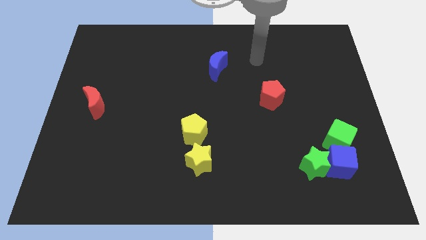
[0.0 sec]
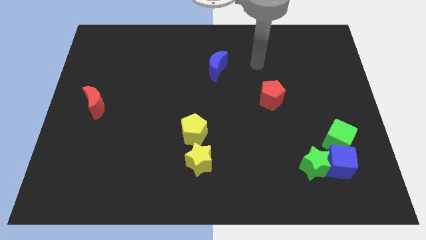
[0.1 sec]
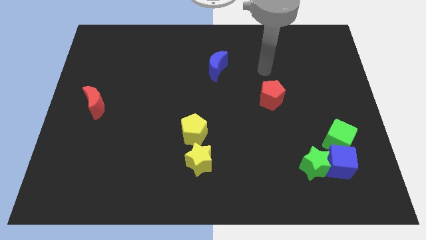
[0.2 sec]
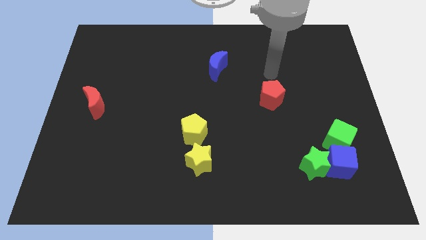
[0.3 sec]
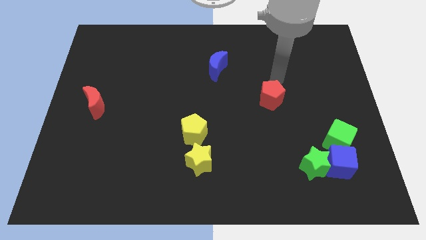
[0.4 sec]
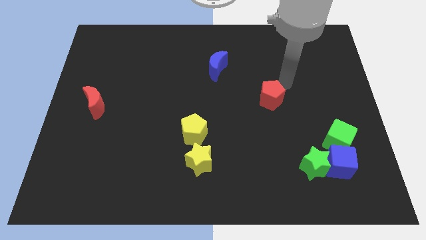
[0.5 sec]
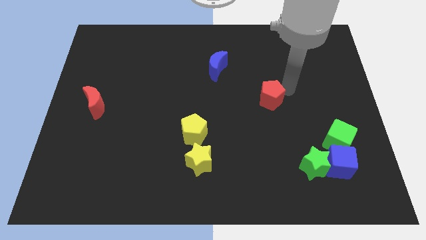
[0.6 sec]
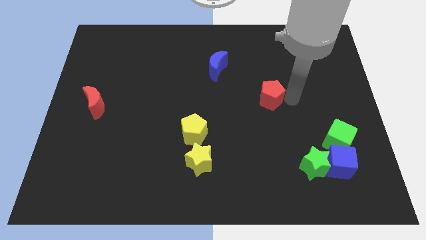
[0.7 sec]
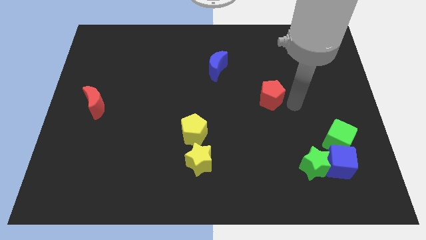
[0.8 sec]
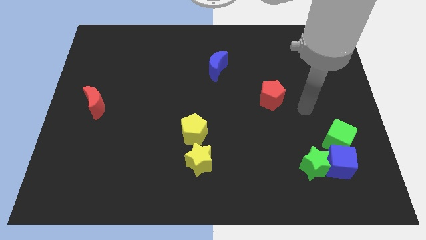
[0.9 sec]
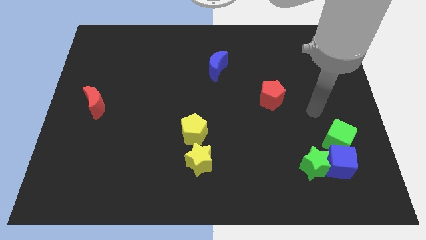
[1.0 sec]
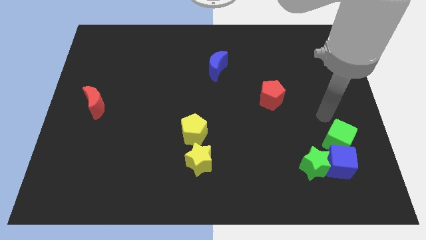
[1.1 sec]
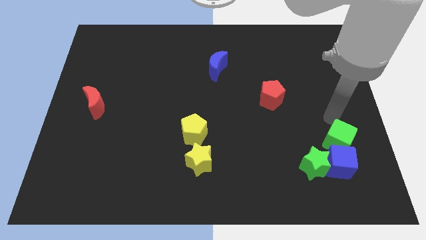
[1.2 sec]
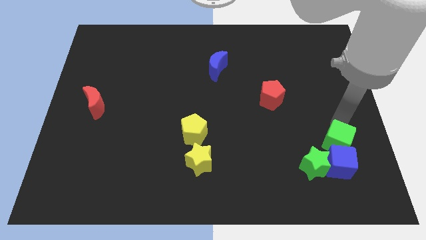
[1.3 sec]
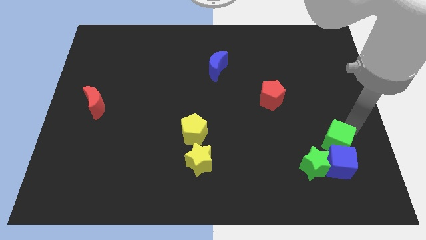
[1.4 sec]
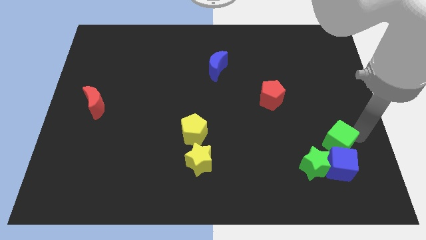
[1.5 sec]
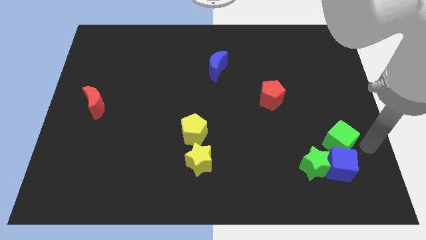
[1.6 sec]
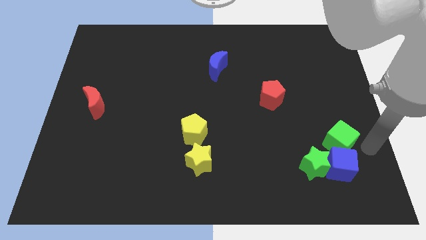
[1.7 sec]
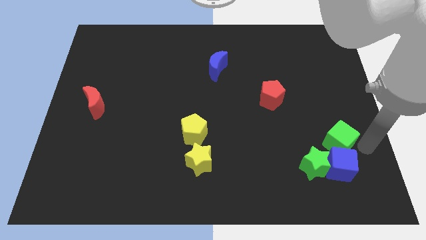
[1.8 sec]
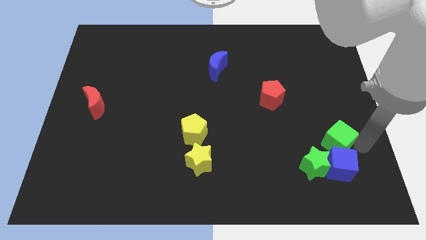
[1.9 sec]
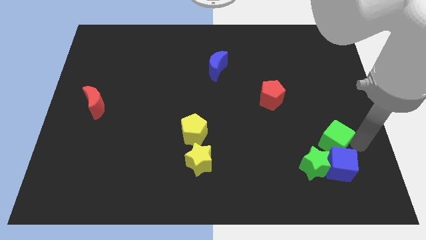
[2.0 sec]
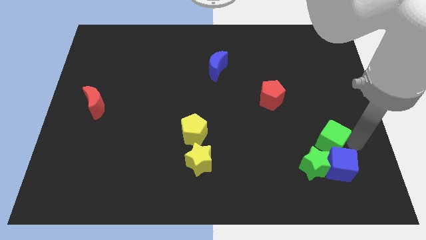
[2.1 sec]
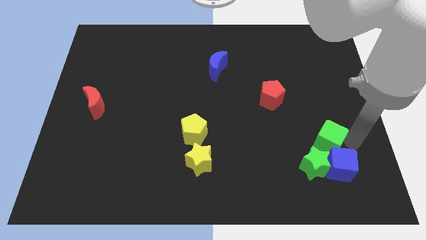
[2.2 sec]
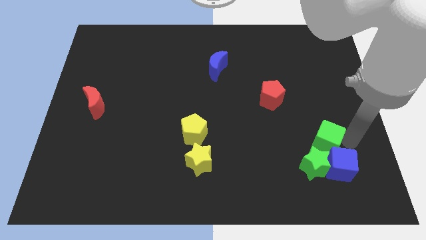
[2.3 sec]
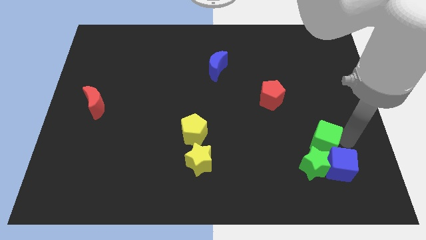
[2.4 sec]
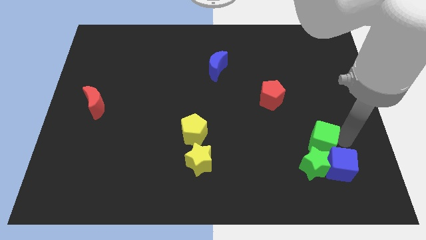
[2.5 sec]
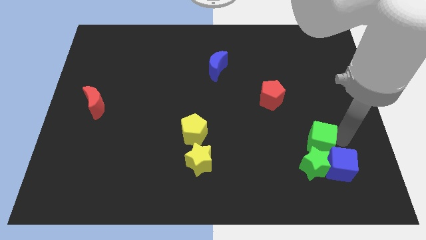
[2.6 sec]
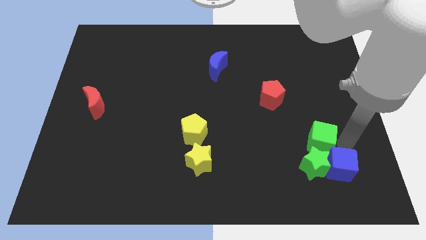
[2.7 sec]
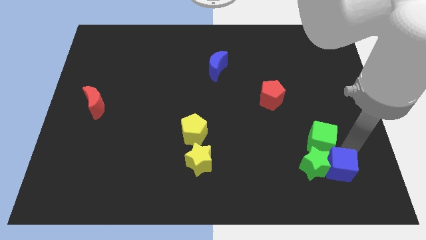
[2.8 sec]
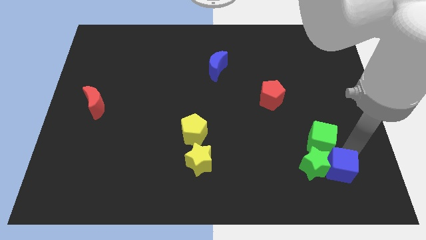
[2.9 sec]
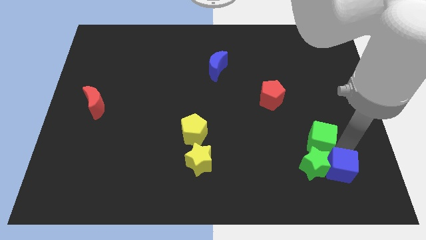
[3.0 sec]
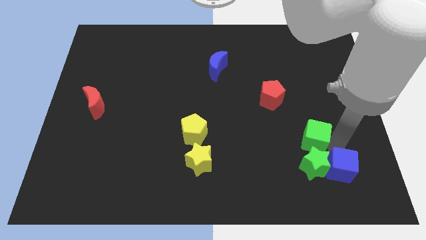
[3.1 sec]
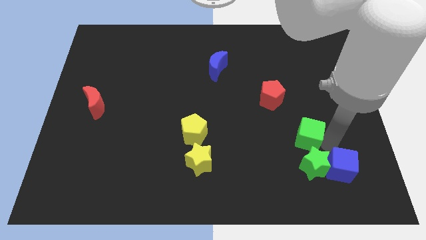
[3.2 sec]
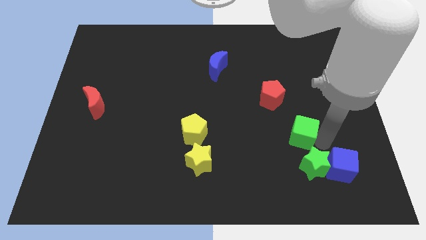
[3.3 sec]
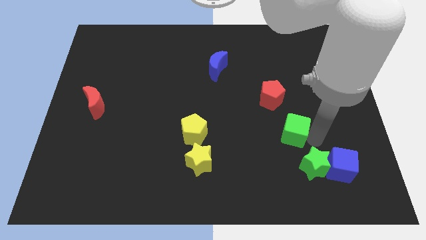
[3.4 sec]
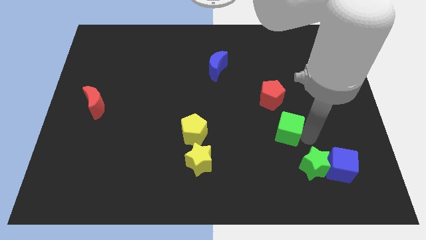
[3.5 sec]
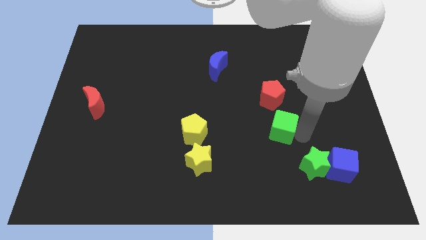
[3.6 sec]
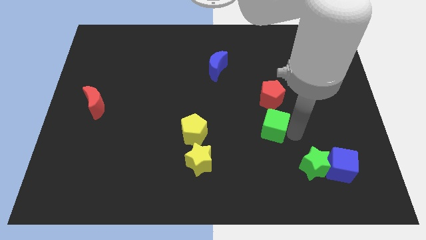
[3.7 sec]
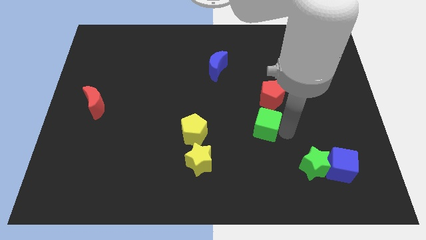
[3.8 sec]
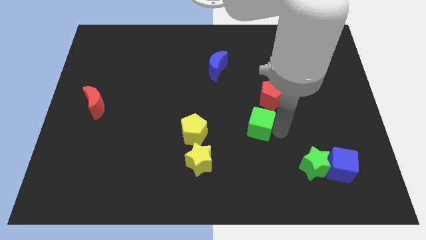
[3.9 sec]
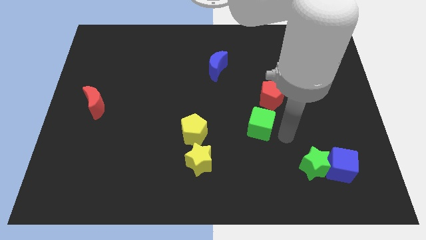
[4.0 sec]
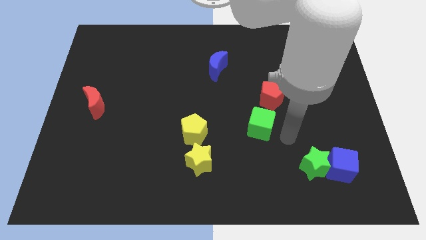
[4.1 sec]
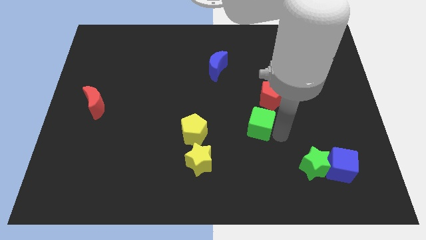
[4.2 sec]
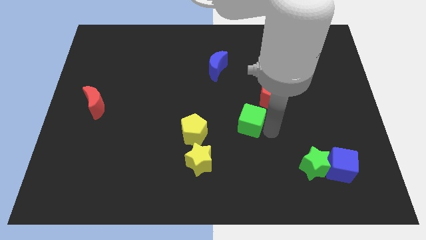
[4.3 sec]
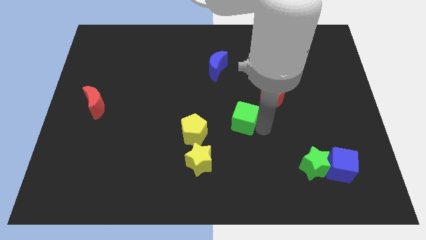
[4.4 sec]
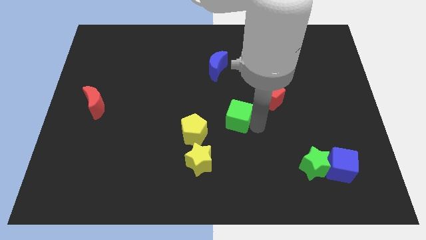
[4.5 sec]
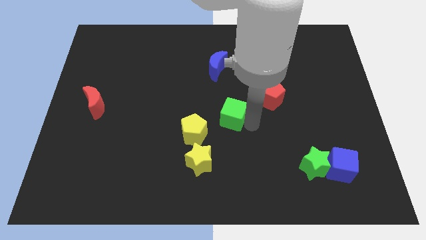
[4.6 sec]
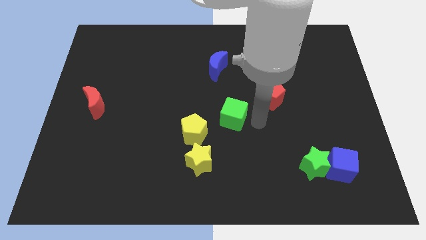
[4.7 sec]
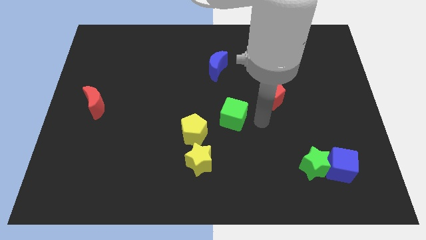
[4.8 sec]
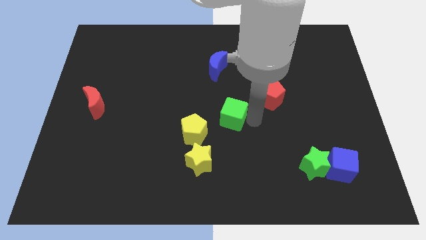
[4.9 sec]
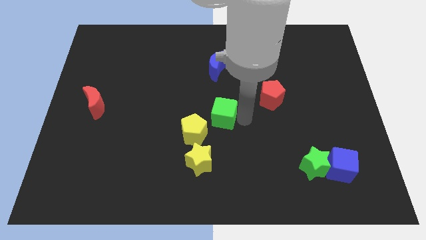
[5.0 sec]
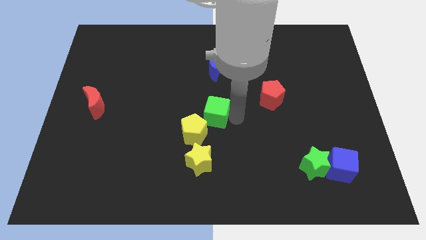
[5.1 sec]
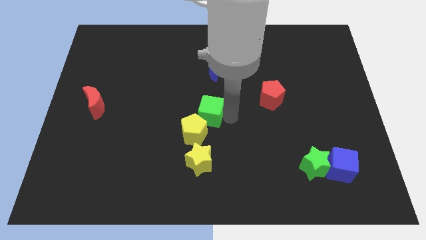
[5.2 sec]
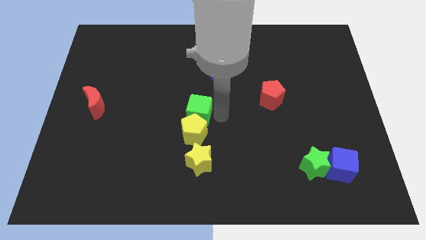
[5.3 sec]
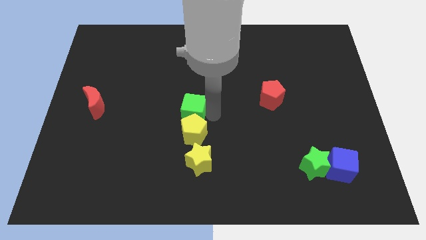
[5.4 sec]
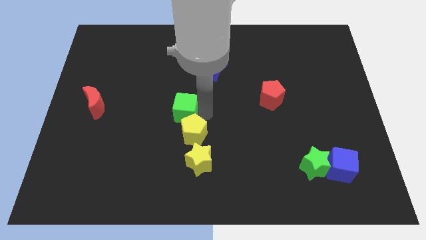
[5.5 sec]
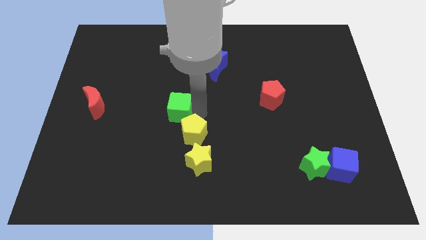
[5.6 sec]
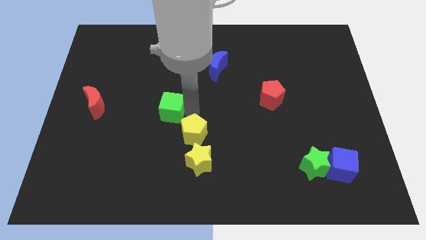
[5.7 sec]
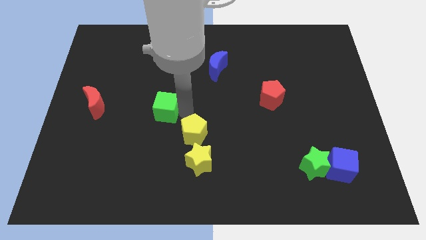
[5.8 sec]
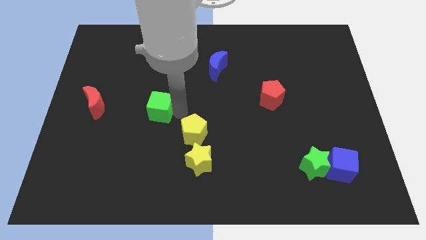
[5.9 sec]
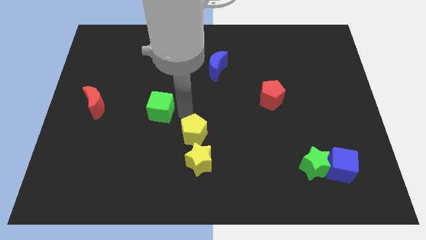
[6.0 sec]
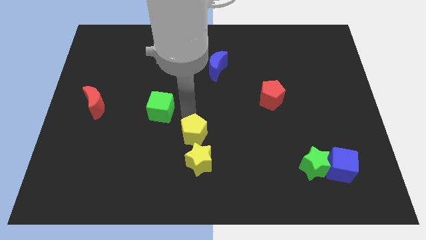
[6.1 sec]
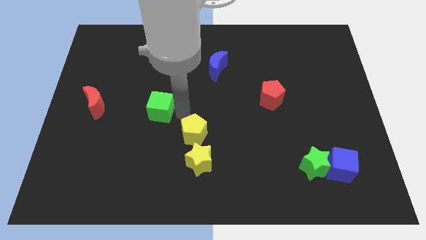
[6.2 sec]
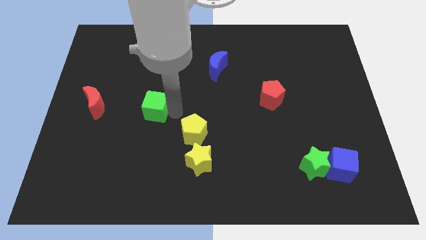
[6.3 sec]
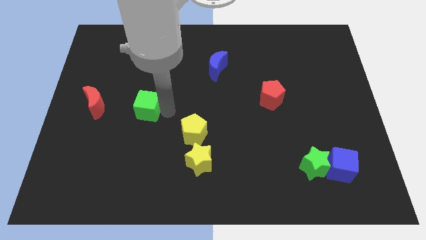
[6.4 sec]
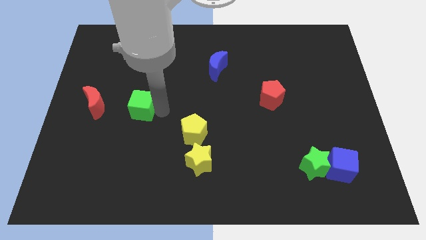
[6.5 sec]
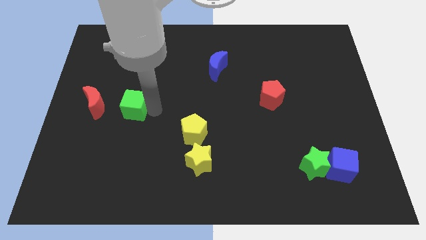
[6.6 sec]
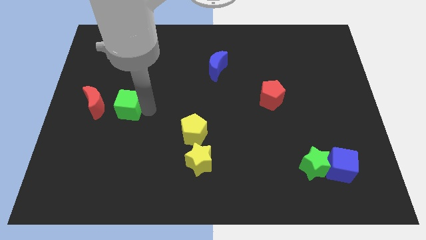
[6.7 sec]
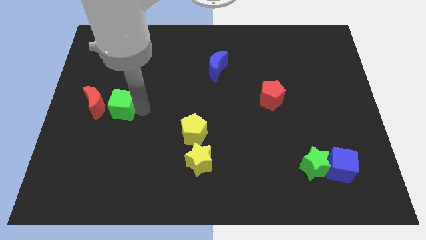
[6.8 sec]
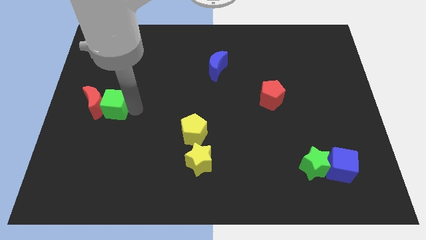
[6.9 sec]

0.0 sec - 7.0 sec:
push the green cube next to the red moon

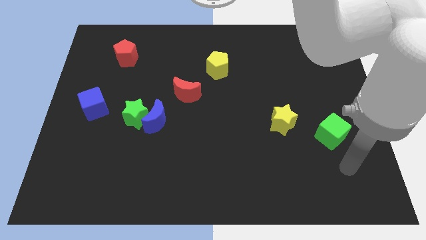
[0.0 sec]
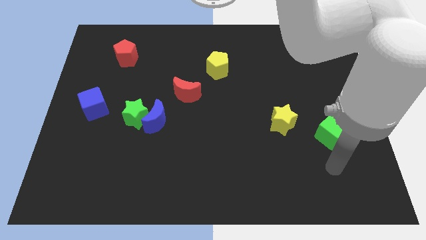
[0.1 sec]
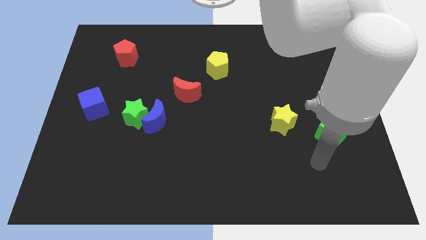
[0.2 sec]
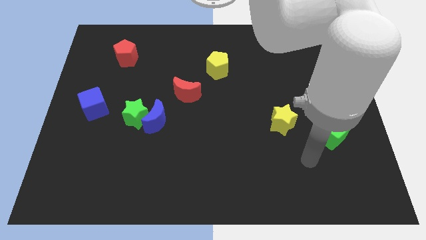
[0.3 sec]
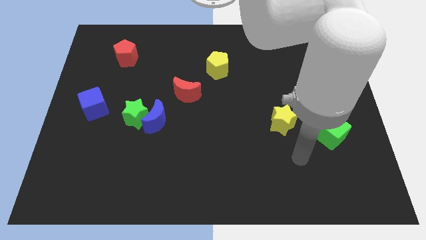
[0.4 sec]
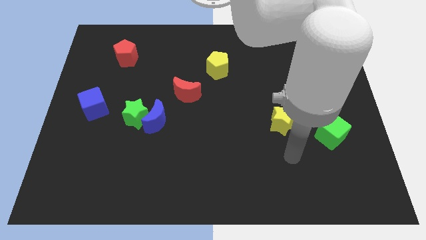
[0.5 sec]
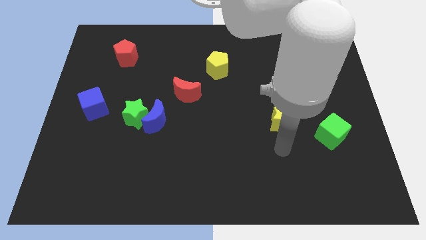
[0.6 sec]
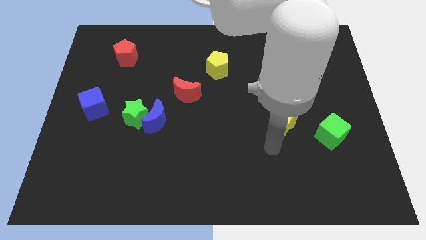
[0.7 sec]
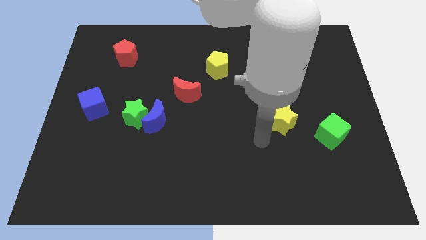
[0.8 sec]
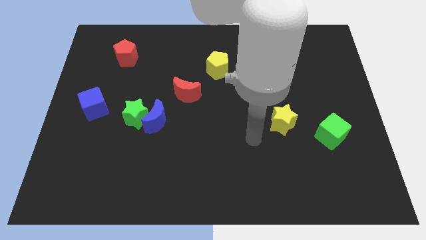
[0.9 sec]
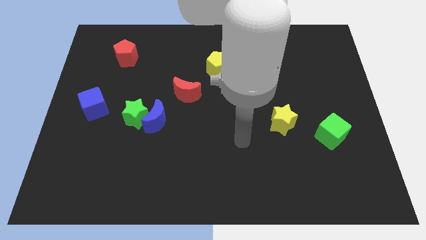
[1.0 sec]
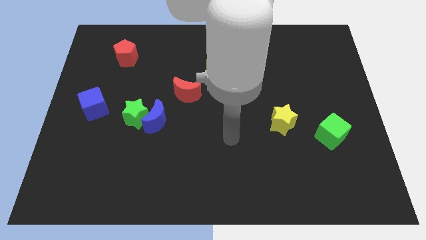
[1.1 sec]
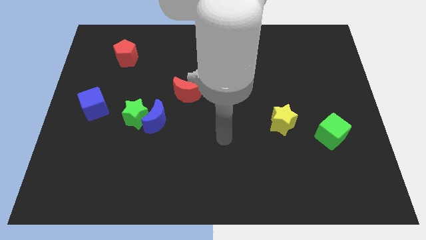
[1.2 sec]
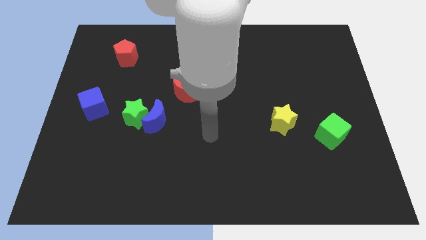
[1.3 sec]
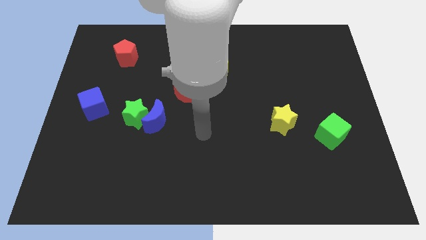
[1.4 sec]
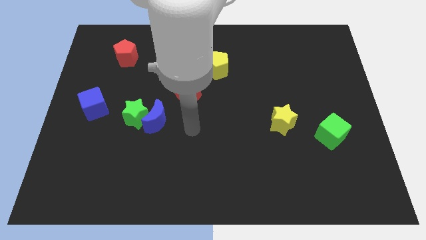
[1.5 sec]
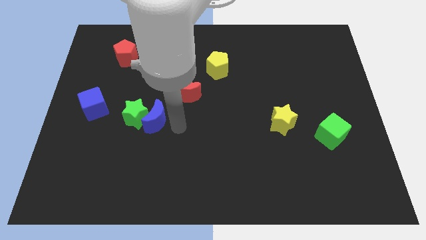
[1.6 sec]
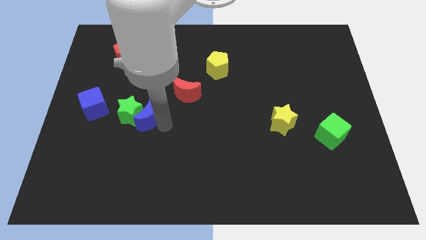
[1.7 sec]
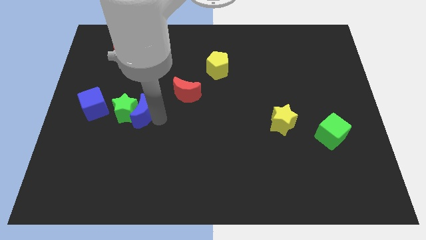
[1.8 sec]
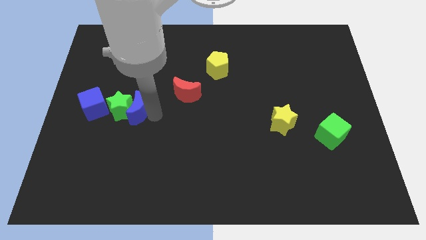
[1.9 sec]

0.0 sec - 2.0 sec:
move the green star to the blue cube
